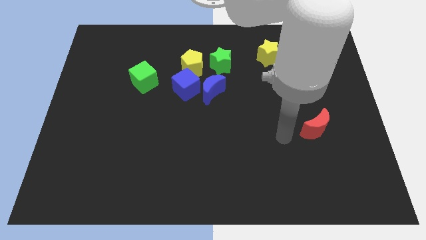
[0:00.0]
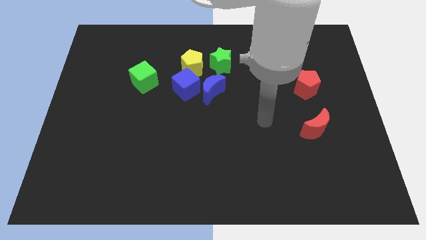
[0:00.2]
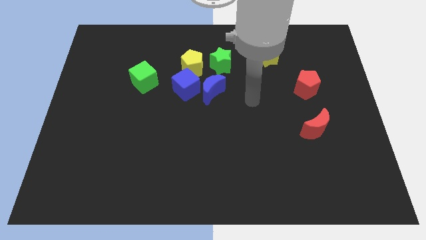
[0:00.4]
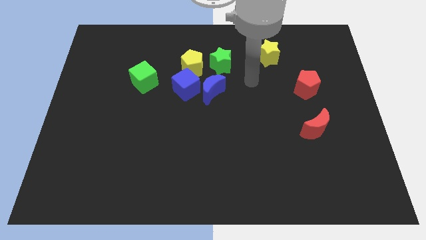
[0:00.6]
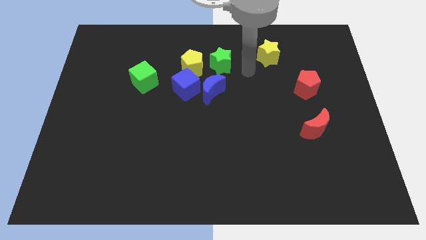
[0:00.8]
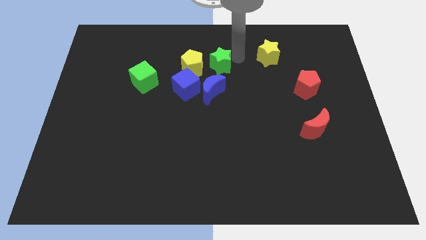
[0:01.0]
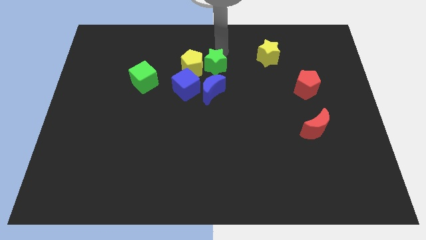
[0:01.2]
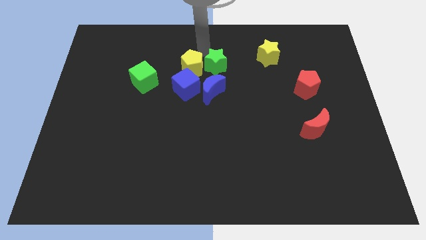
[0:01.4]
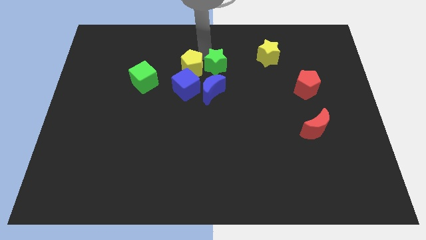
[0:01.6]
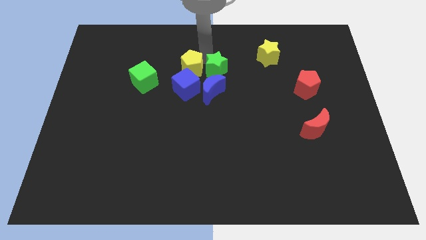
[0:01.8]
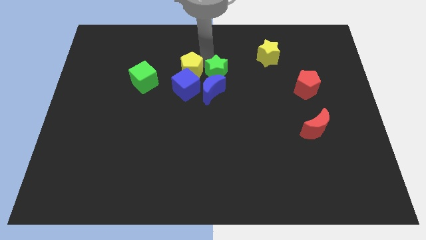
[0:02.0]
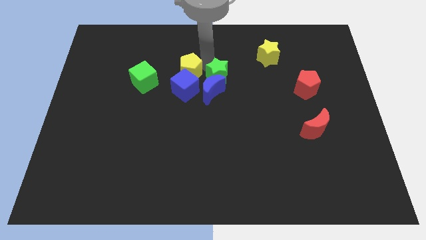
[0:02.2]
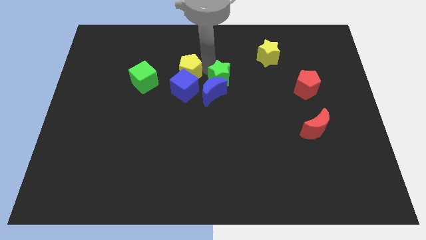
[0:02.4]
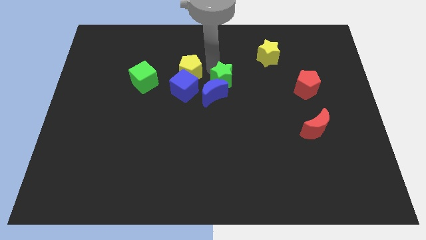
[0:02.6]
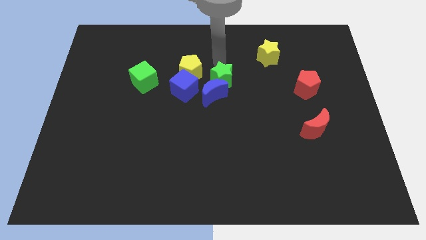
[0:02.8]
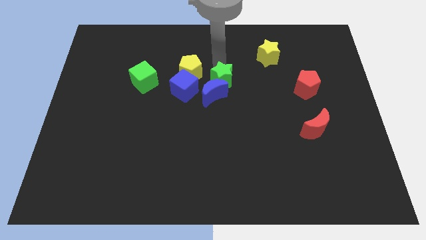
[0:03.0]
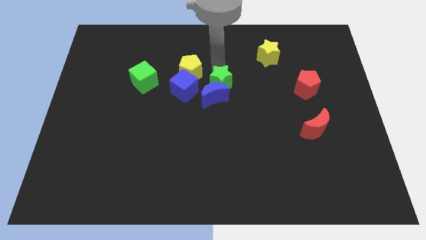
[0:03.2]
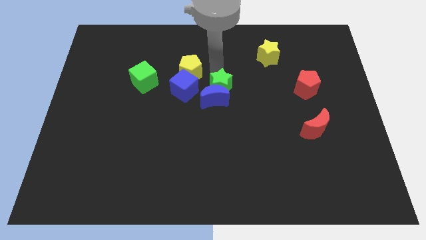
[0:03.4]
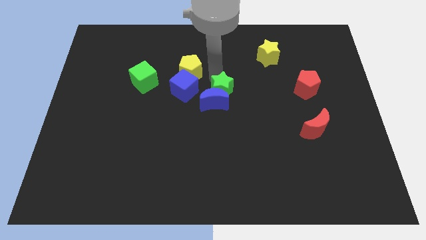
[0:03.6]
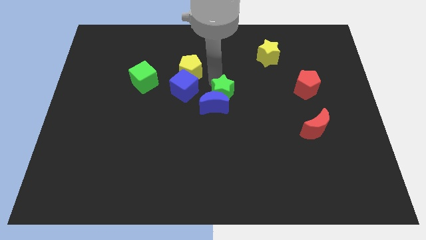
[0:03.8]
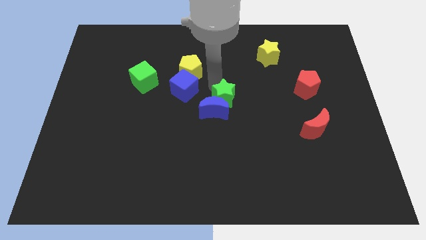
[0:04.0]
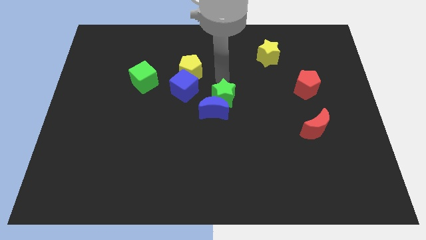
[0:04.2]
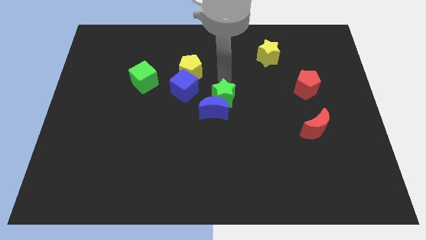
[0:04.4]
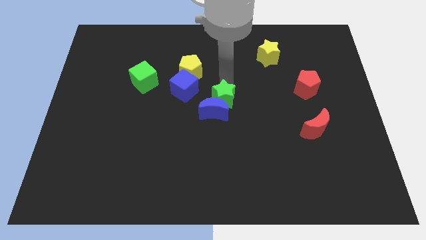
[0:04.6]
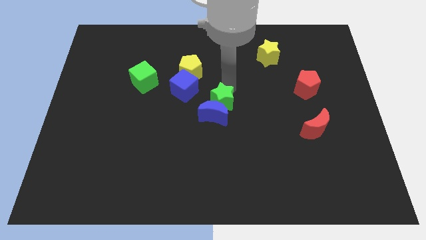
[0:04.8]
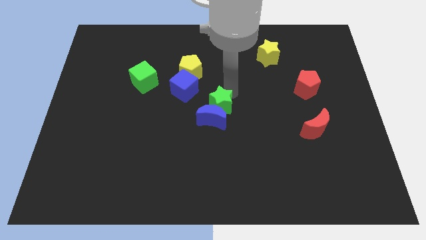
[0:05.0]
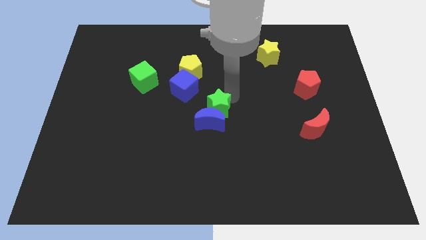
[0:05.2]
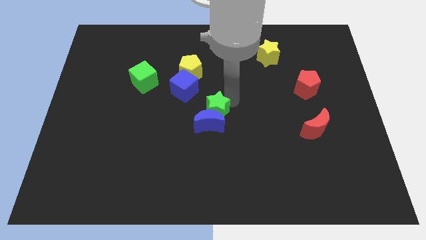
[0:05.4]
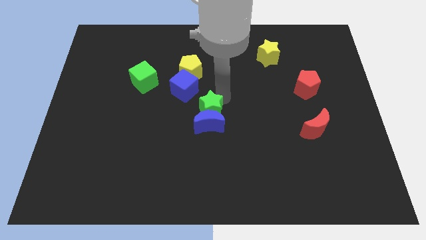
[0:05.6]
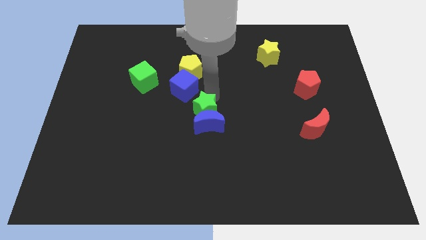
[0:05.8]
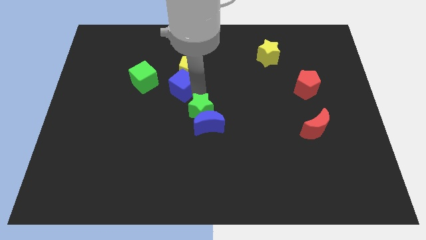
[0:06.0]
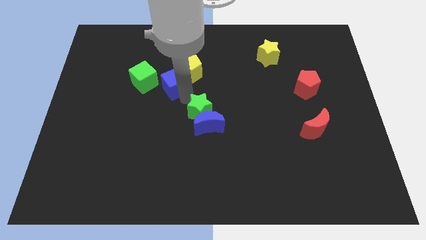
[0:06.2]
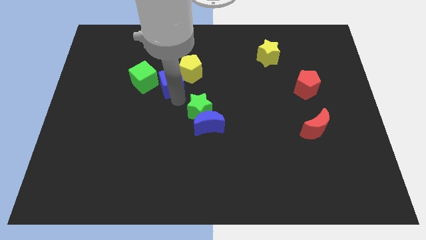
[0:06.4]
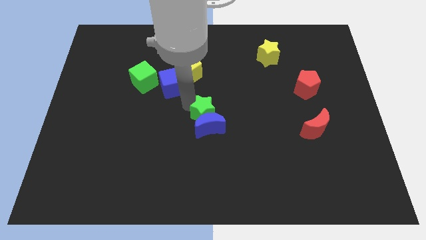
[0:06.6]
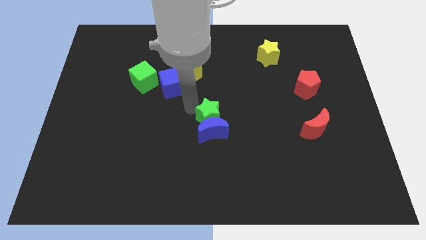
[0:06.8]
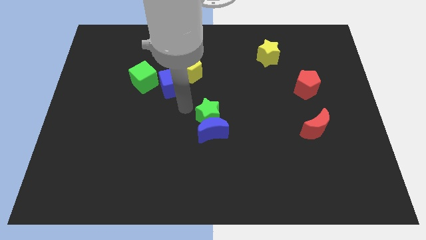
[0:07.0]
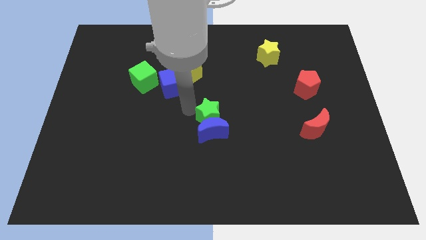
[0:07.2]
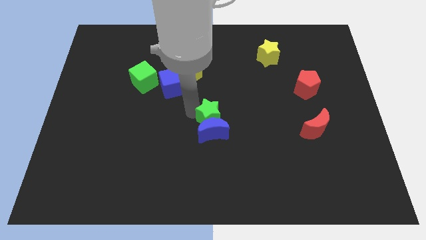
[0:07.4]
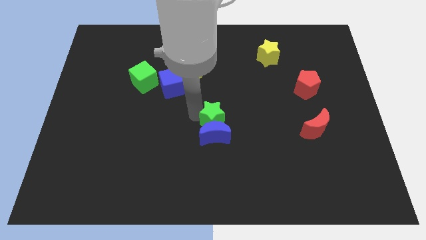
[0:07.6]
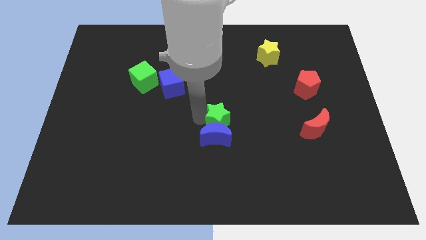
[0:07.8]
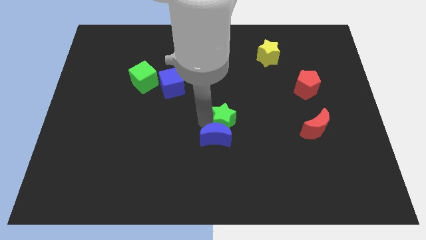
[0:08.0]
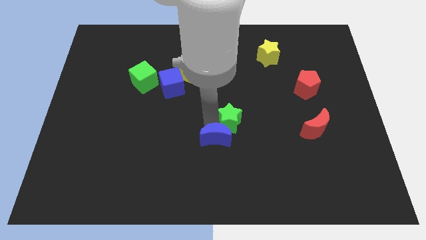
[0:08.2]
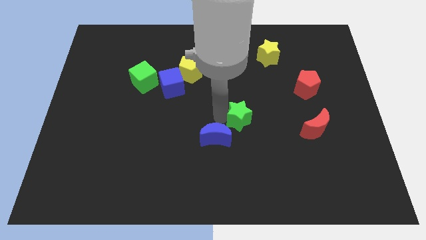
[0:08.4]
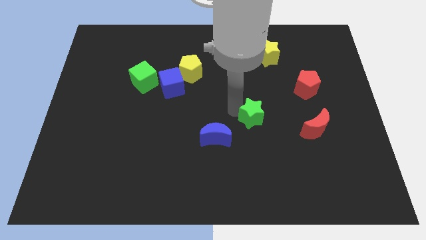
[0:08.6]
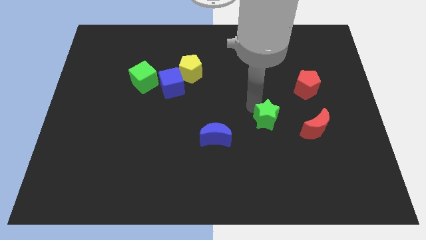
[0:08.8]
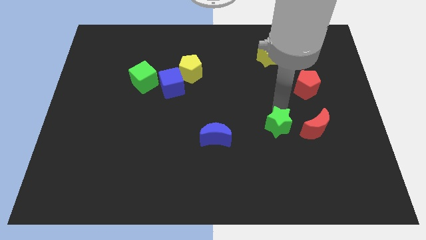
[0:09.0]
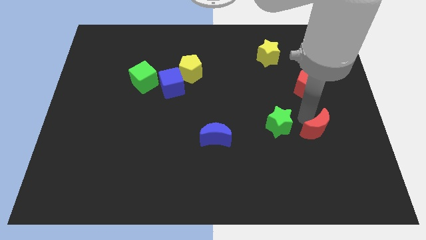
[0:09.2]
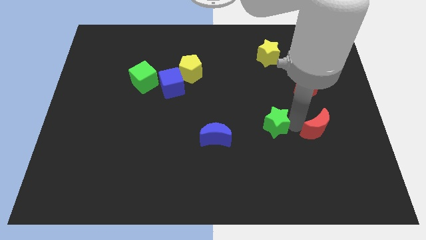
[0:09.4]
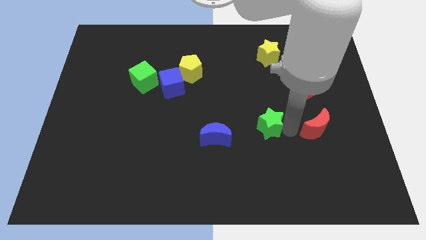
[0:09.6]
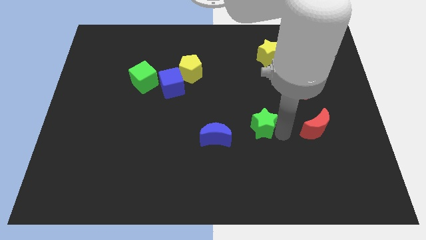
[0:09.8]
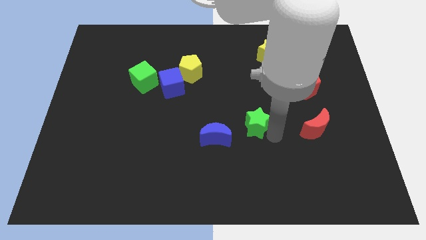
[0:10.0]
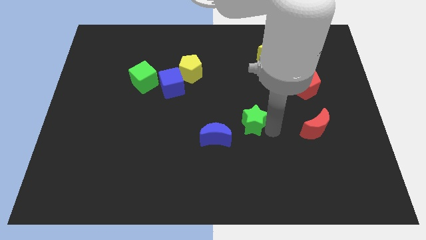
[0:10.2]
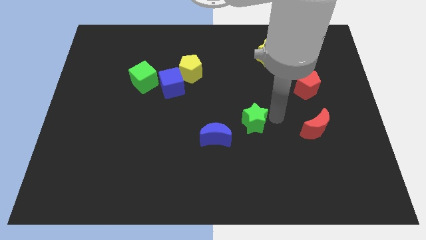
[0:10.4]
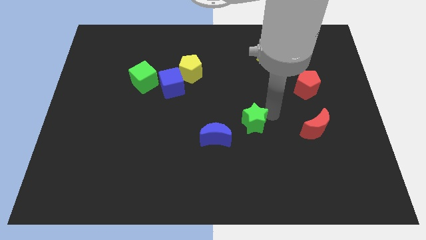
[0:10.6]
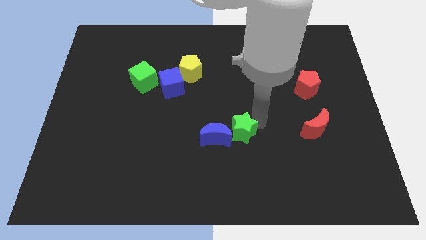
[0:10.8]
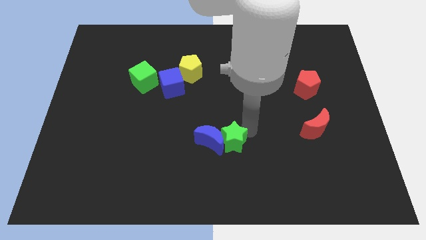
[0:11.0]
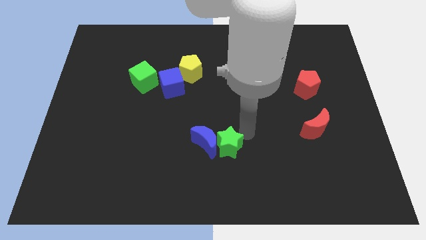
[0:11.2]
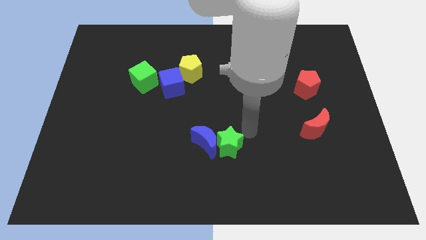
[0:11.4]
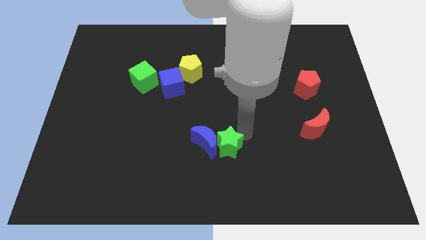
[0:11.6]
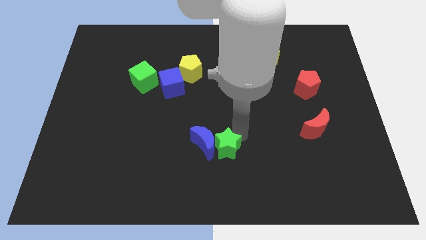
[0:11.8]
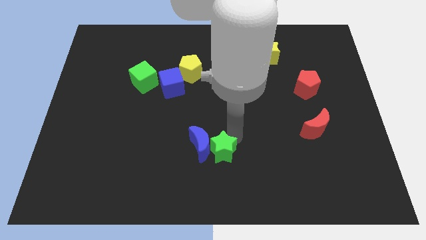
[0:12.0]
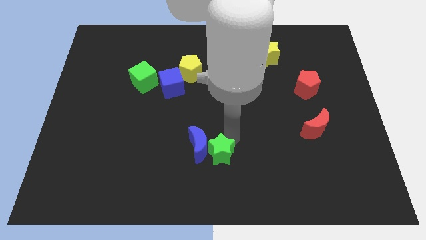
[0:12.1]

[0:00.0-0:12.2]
slide the green star to the bottom
